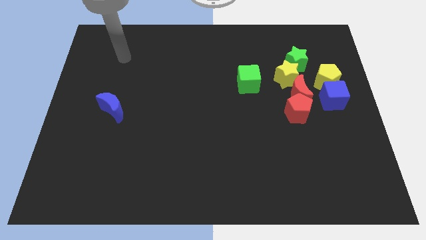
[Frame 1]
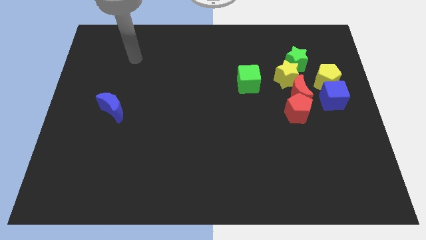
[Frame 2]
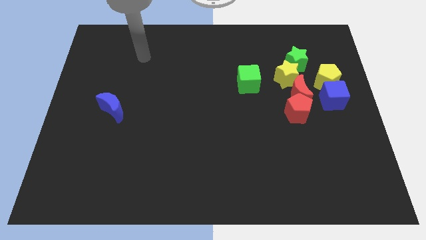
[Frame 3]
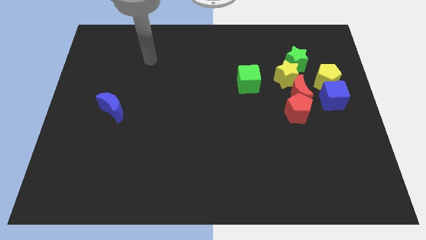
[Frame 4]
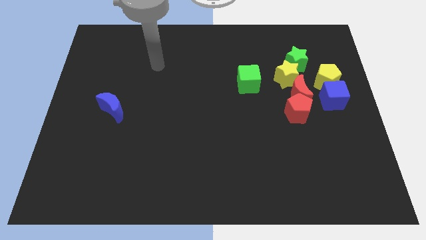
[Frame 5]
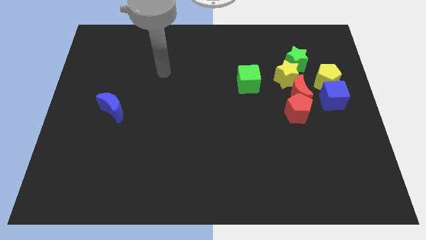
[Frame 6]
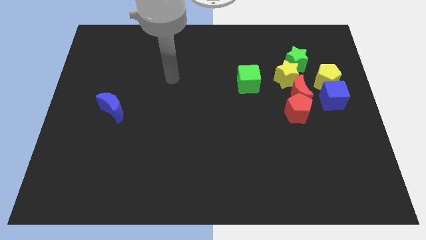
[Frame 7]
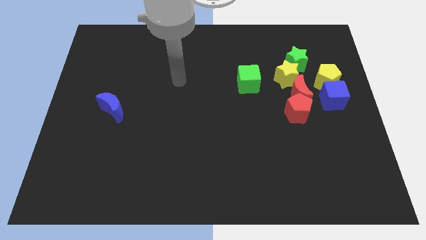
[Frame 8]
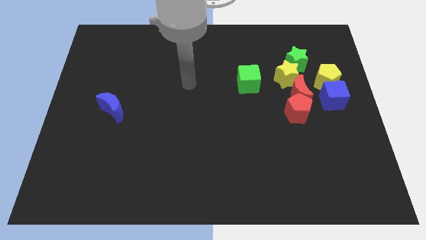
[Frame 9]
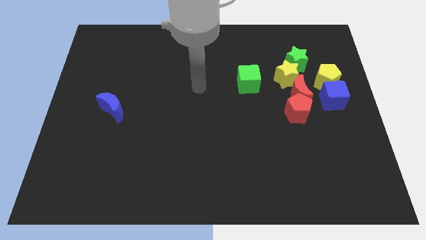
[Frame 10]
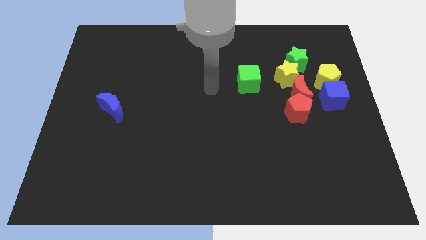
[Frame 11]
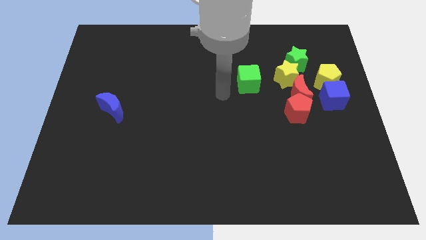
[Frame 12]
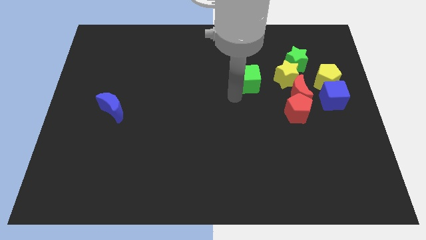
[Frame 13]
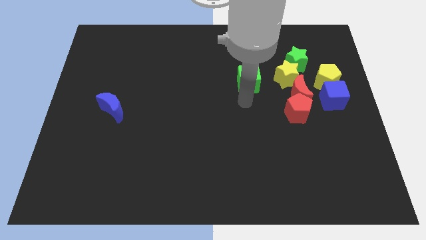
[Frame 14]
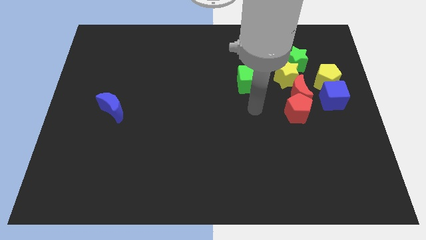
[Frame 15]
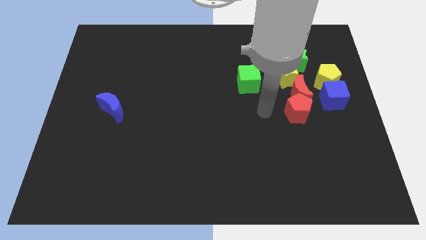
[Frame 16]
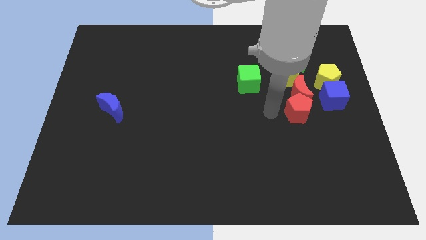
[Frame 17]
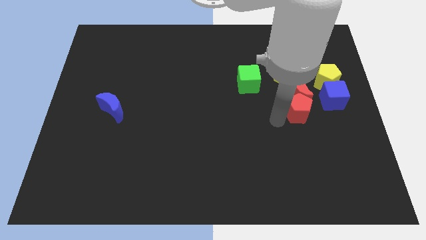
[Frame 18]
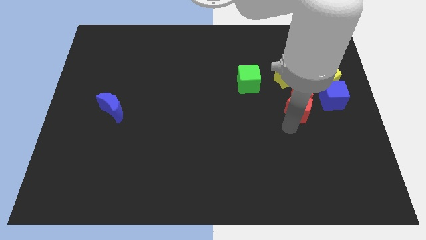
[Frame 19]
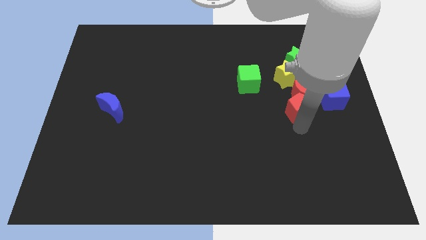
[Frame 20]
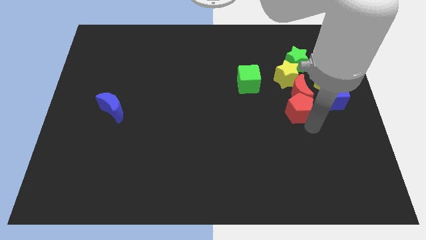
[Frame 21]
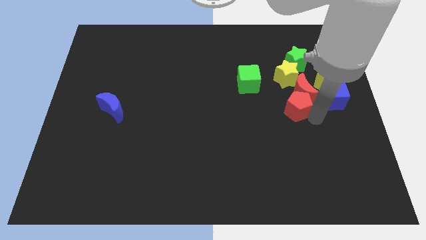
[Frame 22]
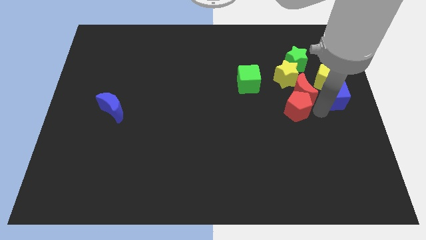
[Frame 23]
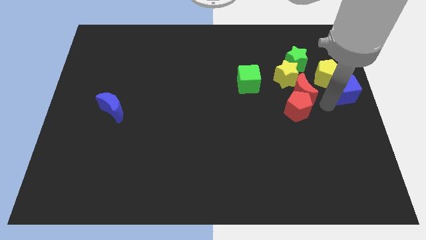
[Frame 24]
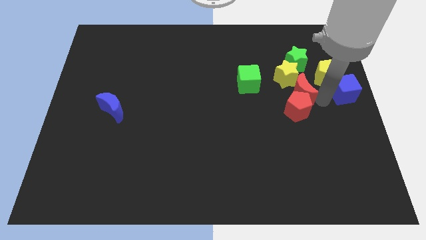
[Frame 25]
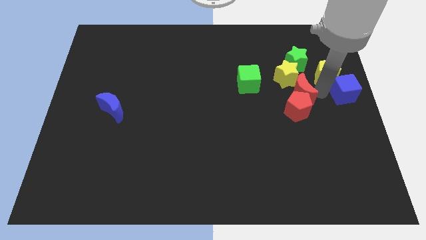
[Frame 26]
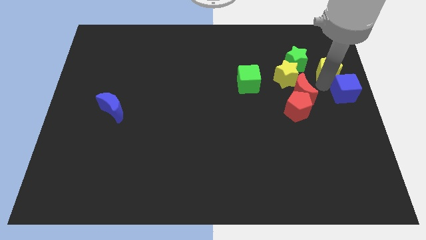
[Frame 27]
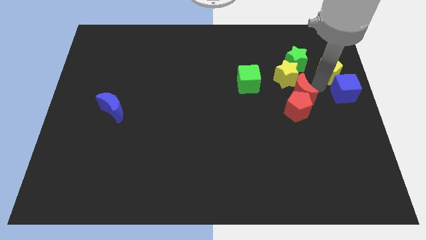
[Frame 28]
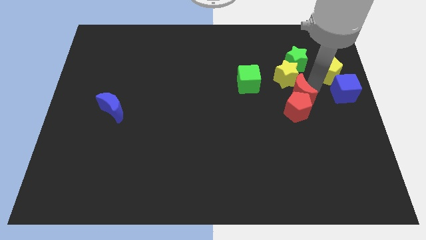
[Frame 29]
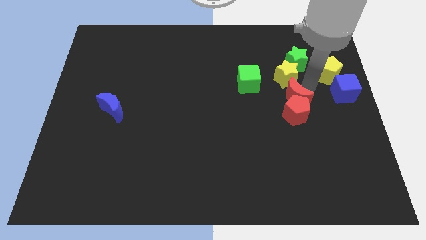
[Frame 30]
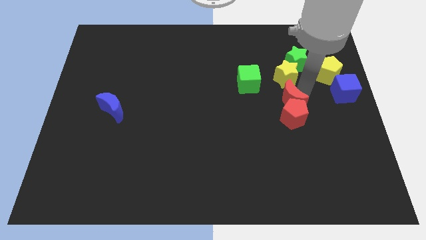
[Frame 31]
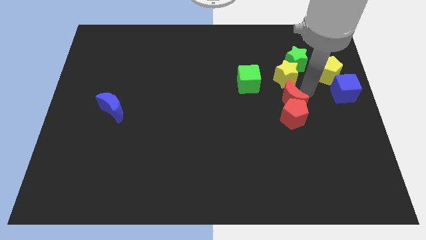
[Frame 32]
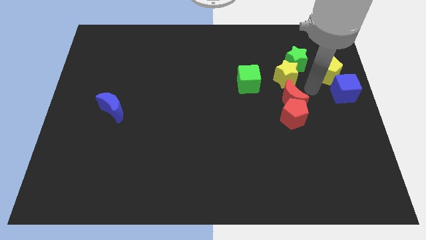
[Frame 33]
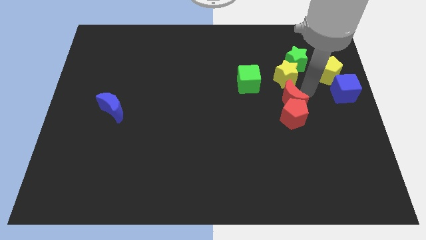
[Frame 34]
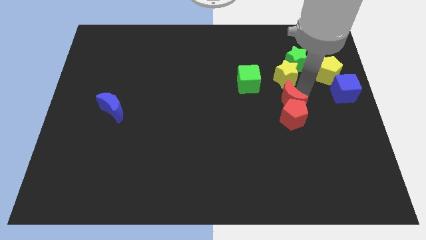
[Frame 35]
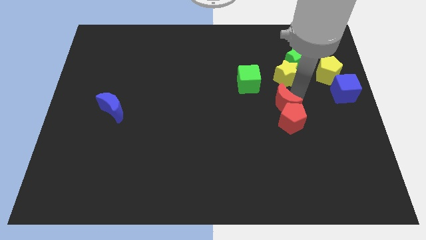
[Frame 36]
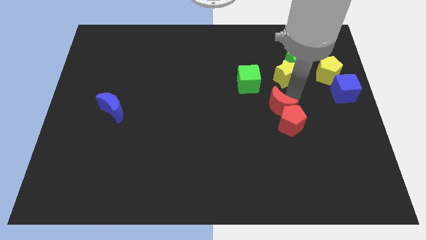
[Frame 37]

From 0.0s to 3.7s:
separate the red moon from the group of blocks

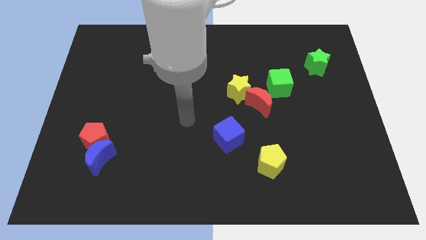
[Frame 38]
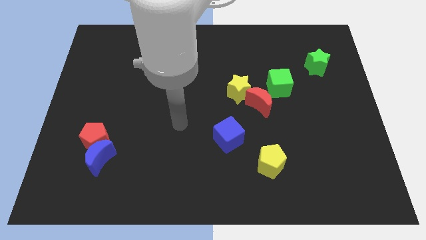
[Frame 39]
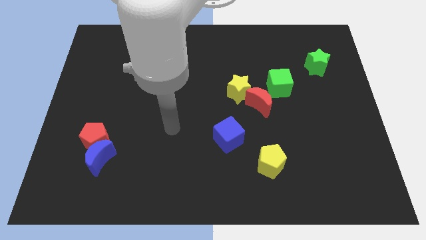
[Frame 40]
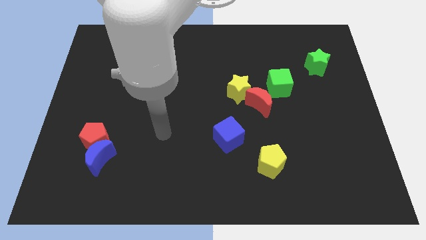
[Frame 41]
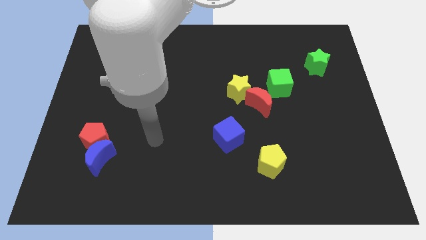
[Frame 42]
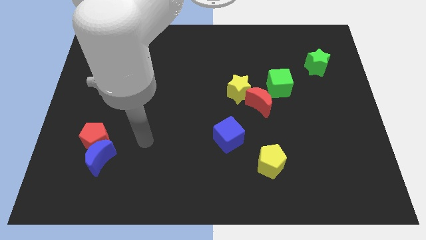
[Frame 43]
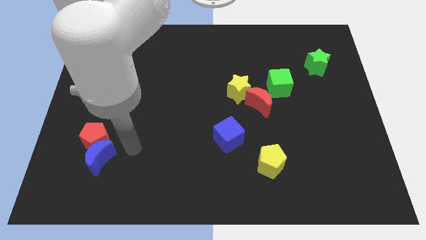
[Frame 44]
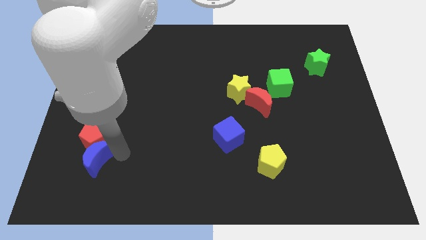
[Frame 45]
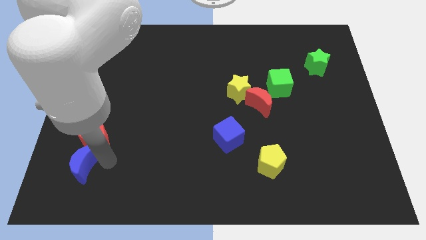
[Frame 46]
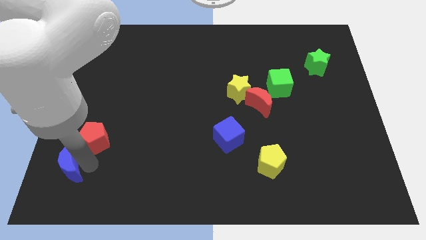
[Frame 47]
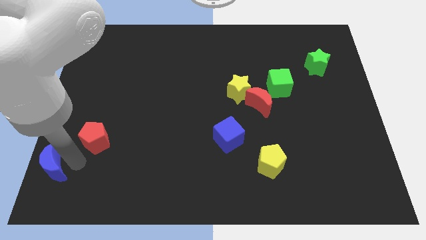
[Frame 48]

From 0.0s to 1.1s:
pull the red pentagon apart from the blue moon

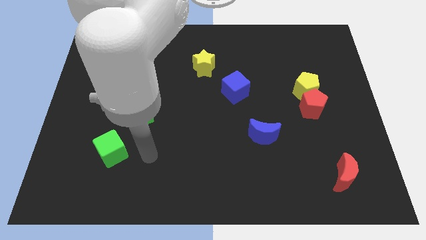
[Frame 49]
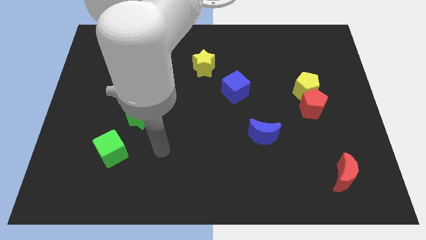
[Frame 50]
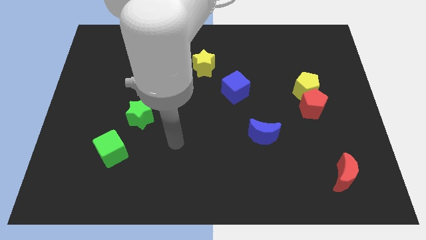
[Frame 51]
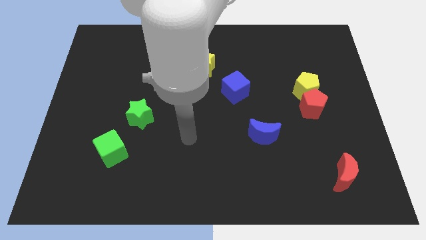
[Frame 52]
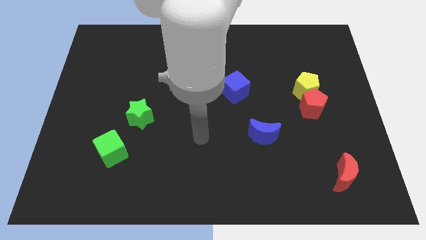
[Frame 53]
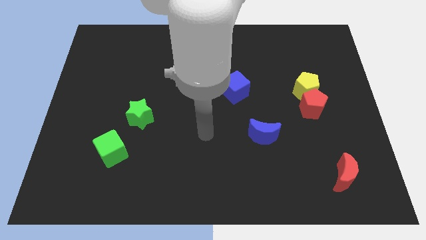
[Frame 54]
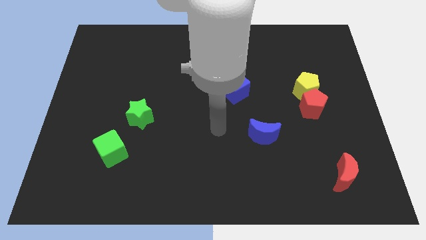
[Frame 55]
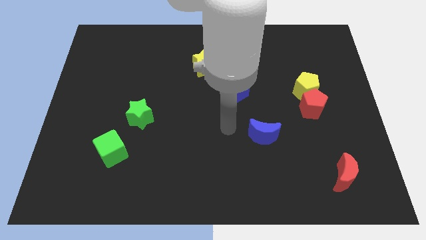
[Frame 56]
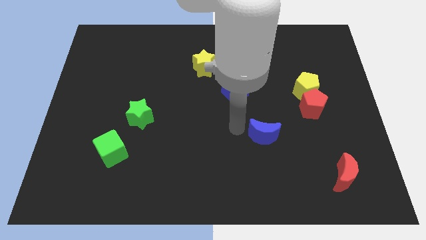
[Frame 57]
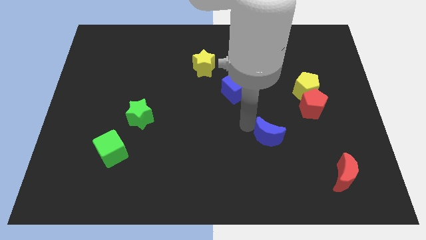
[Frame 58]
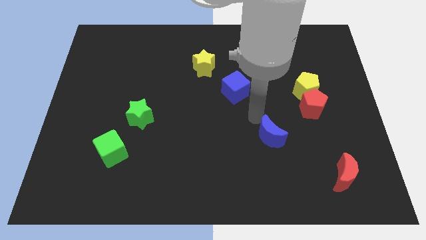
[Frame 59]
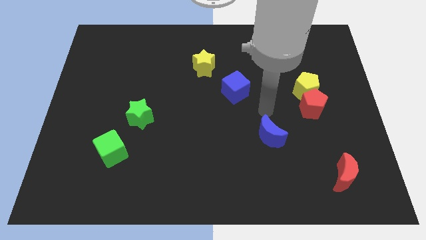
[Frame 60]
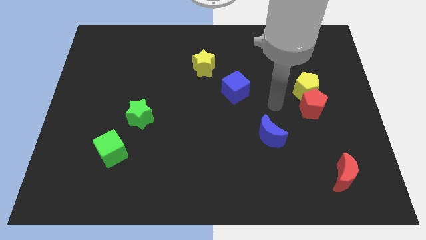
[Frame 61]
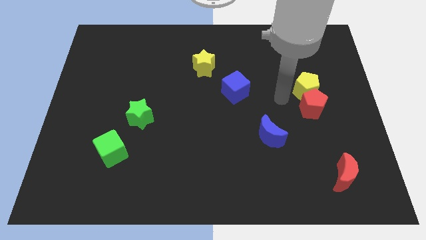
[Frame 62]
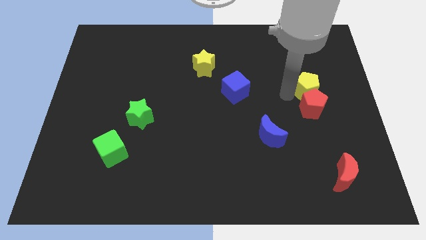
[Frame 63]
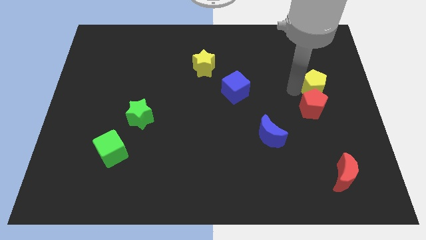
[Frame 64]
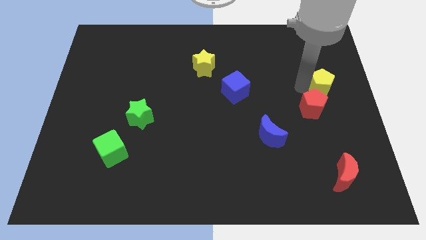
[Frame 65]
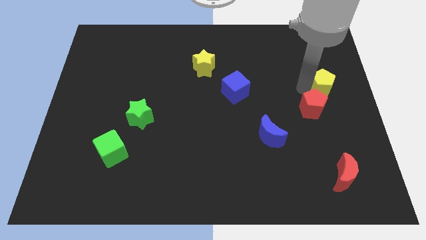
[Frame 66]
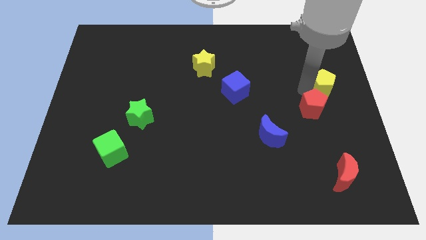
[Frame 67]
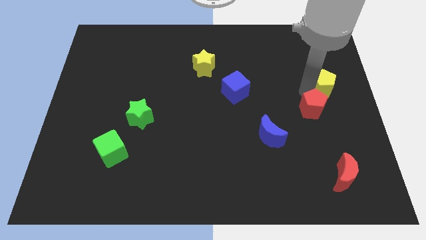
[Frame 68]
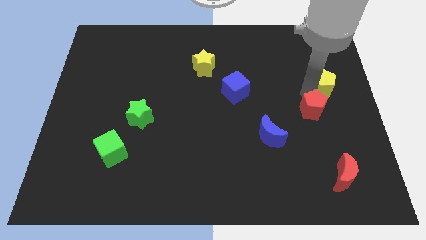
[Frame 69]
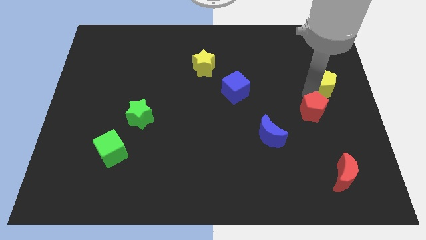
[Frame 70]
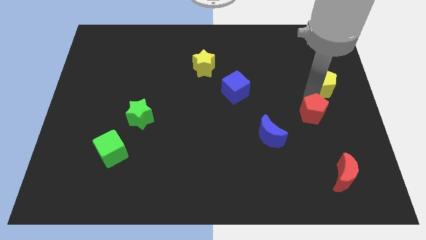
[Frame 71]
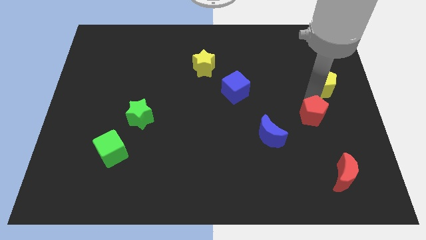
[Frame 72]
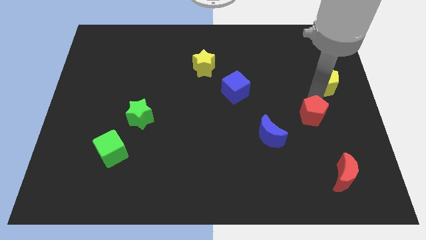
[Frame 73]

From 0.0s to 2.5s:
separate the red pentagon from the yellow pentagon

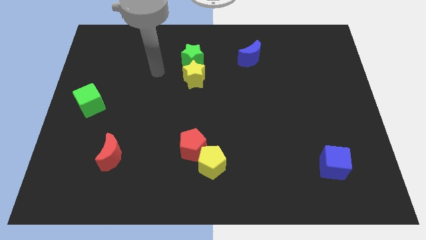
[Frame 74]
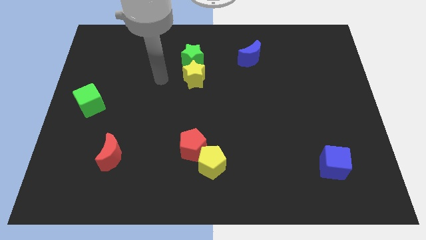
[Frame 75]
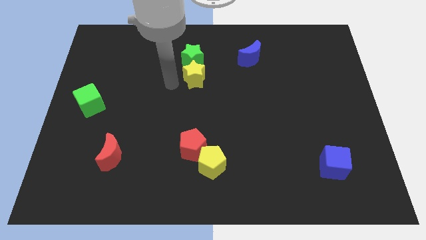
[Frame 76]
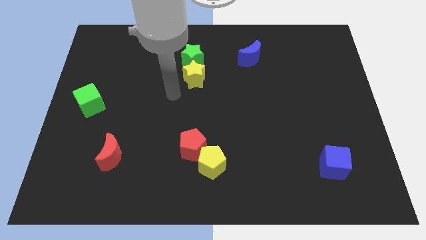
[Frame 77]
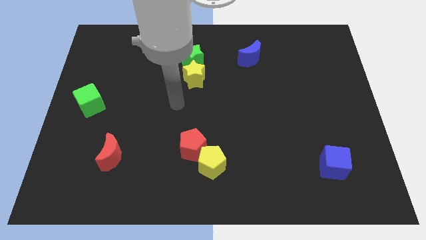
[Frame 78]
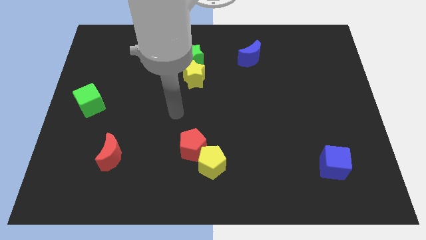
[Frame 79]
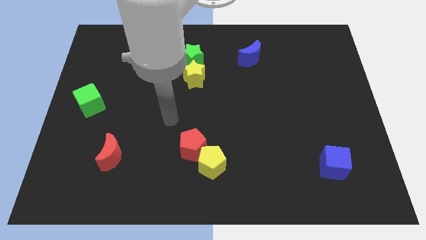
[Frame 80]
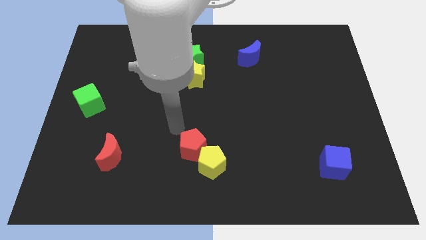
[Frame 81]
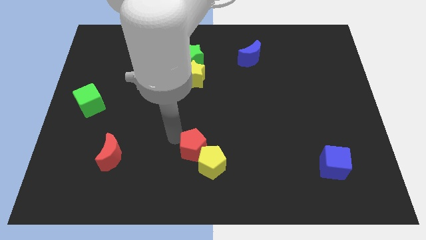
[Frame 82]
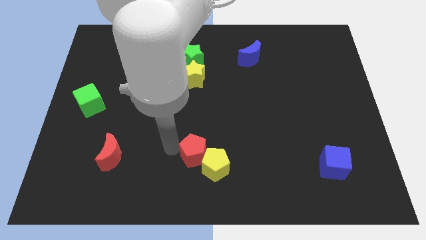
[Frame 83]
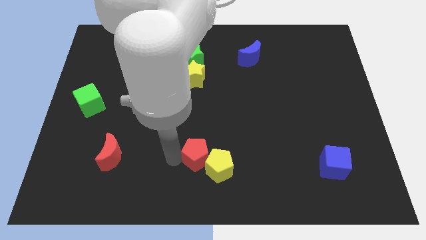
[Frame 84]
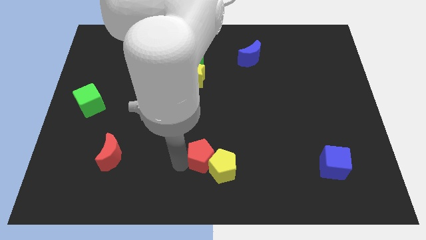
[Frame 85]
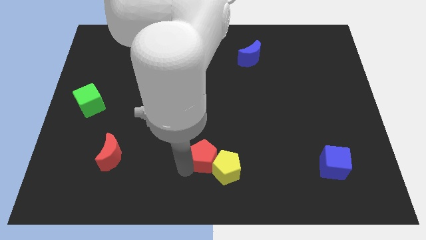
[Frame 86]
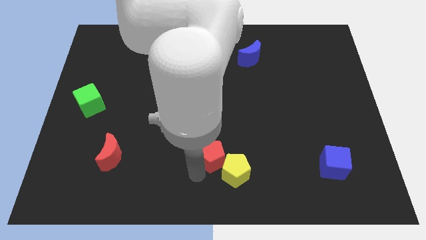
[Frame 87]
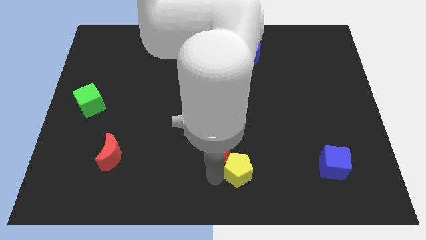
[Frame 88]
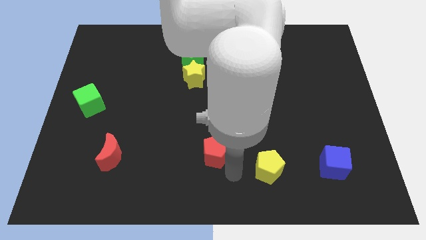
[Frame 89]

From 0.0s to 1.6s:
pull the red pentagon apart from the yellow pentagon

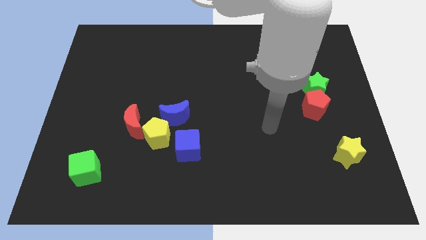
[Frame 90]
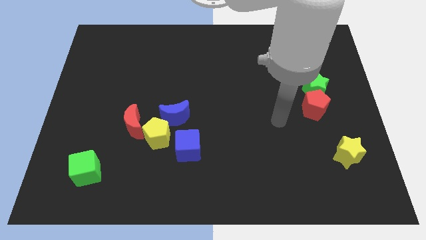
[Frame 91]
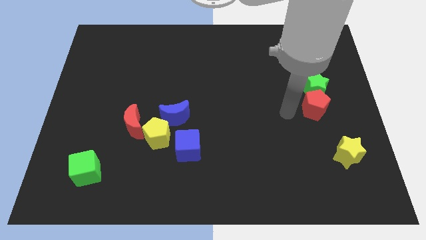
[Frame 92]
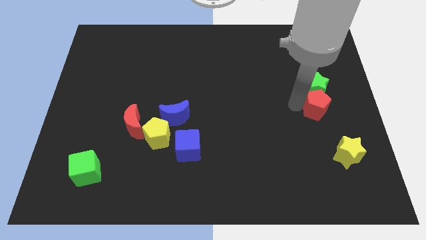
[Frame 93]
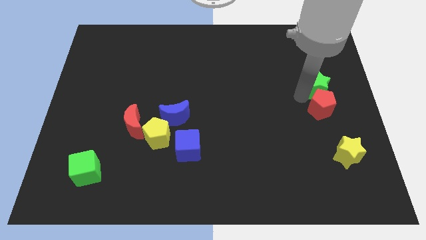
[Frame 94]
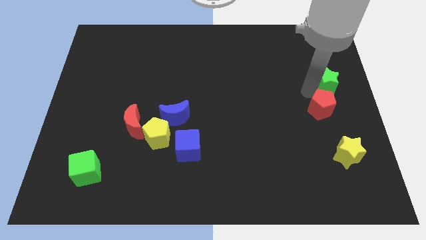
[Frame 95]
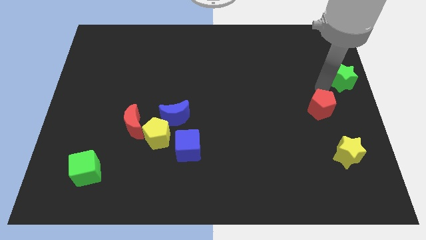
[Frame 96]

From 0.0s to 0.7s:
move the red pentagon away from the green star
